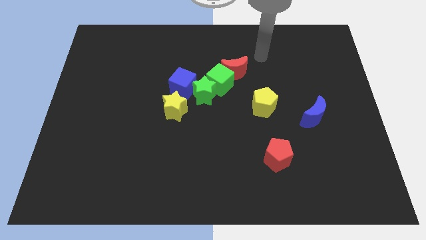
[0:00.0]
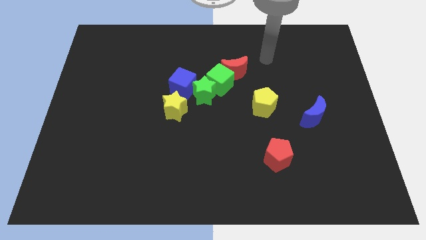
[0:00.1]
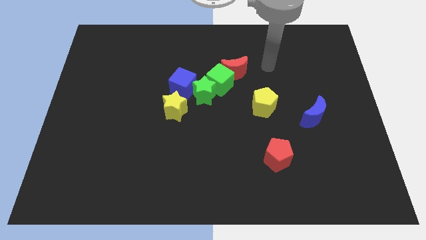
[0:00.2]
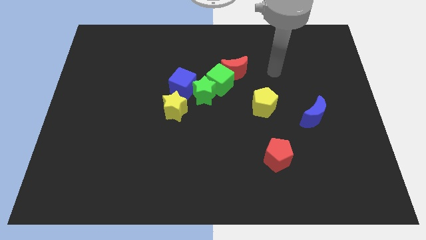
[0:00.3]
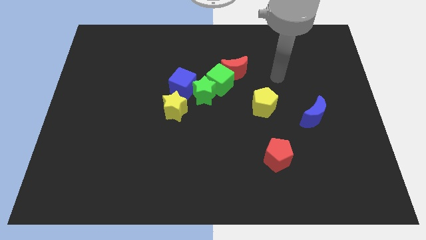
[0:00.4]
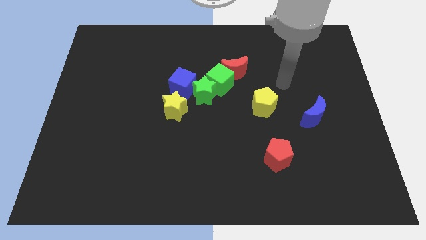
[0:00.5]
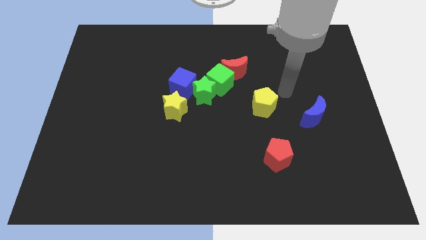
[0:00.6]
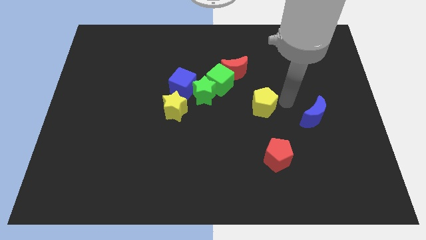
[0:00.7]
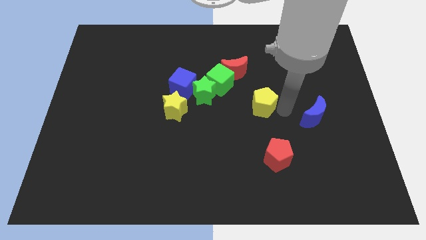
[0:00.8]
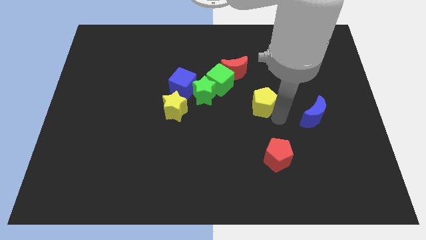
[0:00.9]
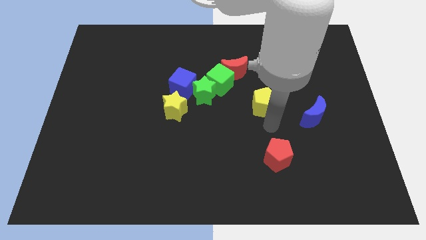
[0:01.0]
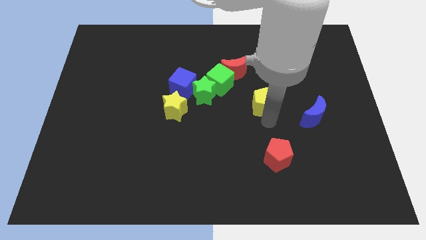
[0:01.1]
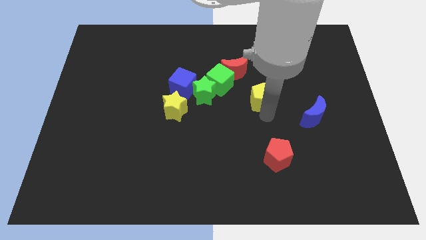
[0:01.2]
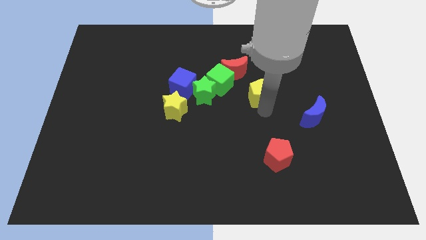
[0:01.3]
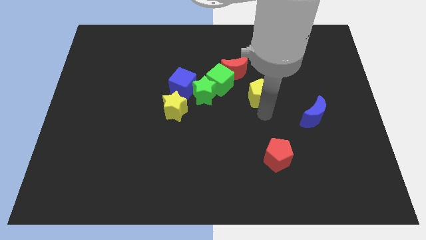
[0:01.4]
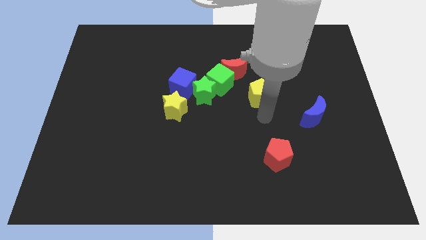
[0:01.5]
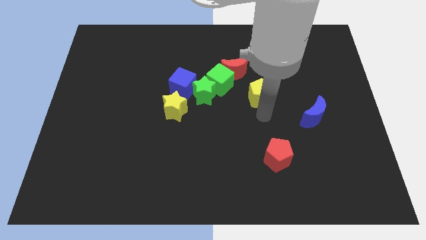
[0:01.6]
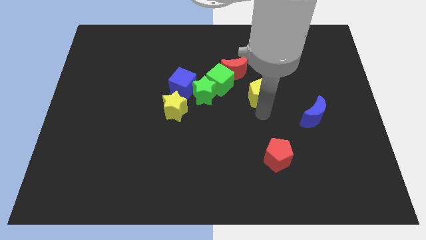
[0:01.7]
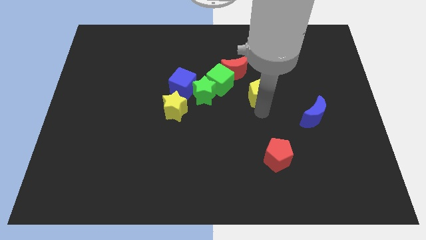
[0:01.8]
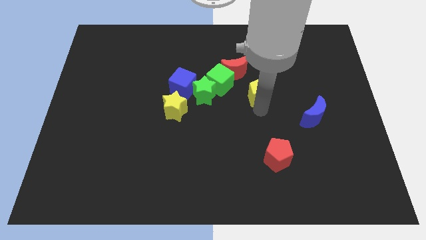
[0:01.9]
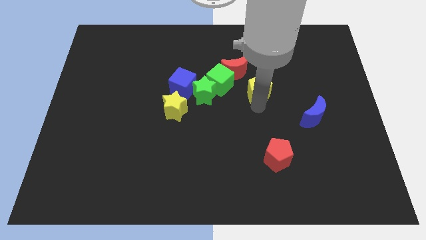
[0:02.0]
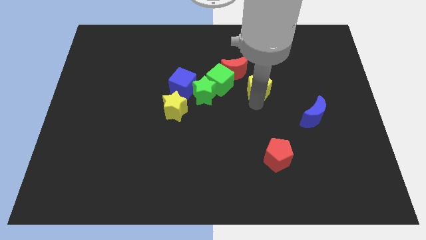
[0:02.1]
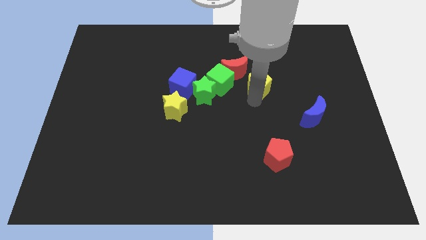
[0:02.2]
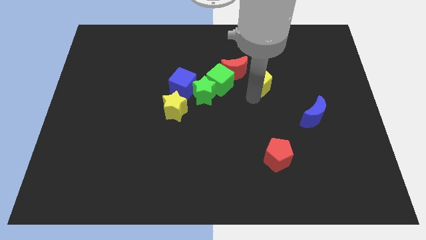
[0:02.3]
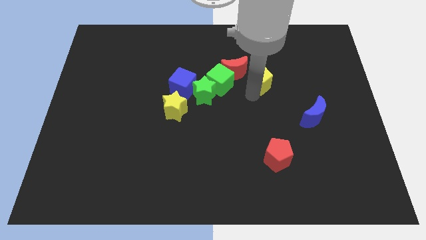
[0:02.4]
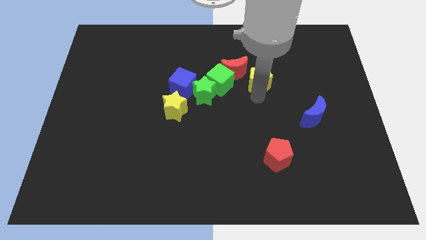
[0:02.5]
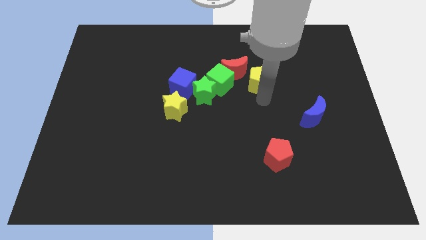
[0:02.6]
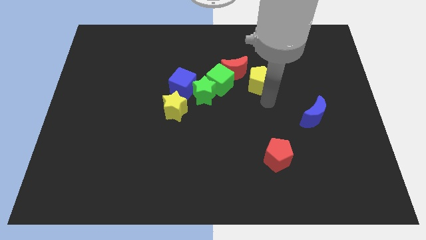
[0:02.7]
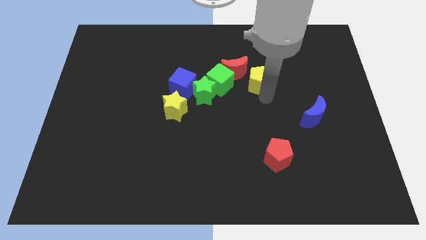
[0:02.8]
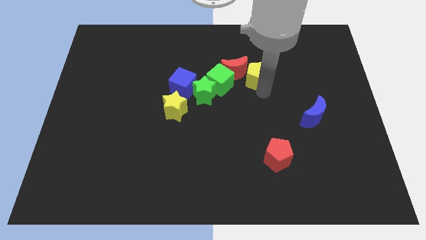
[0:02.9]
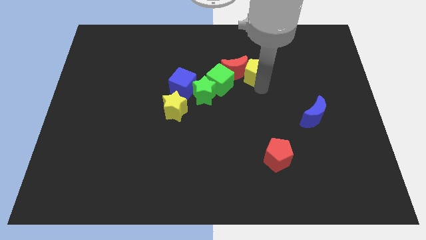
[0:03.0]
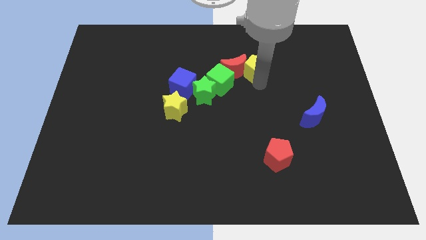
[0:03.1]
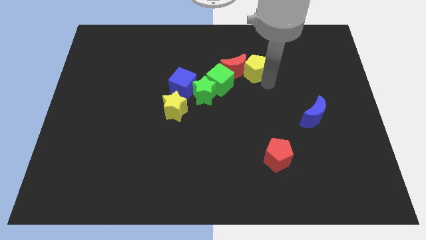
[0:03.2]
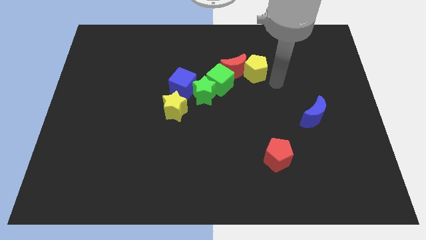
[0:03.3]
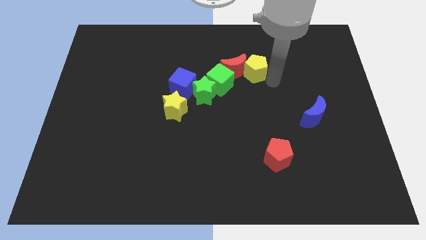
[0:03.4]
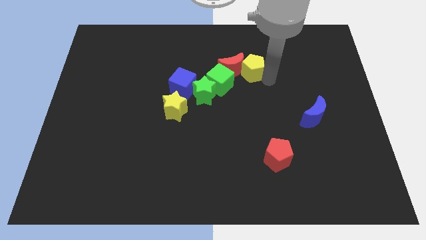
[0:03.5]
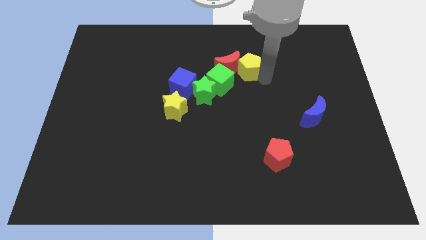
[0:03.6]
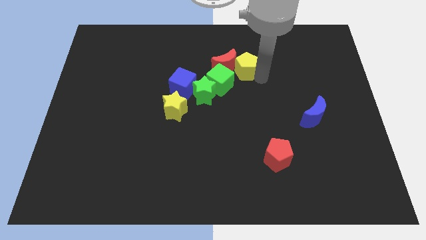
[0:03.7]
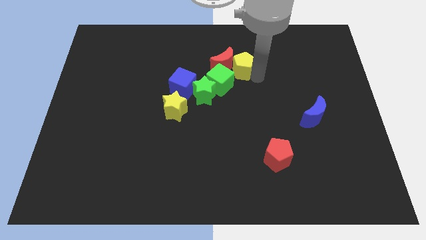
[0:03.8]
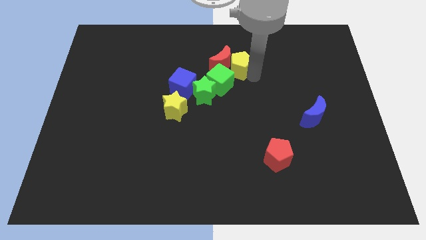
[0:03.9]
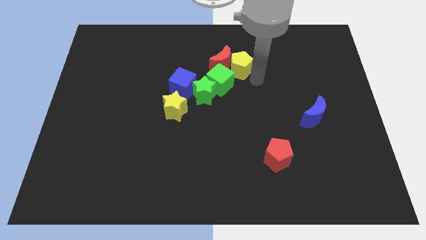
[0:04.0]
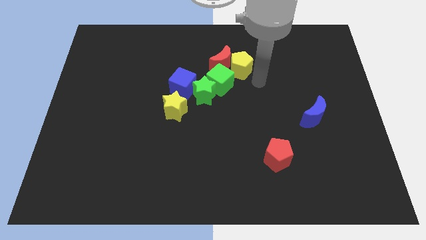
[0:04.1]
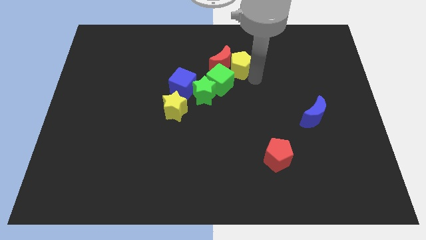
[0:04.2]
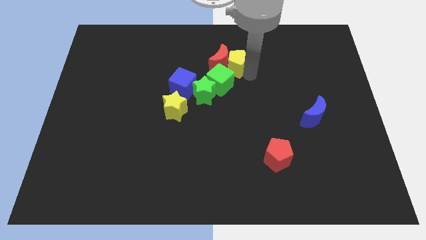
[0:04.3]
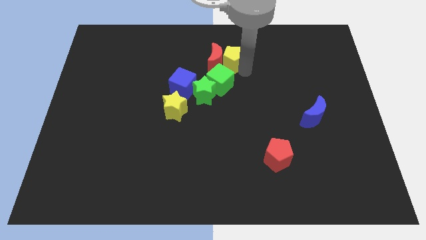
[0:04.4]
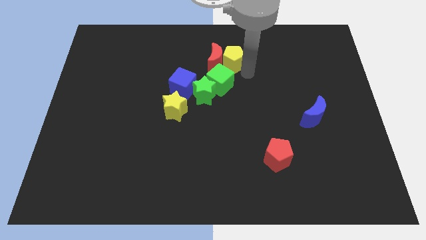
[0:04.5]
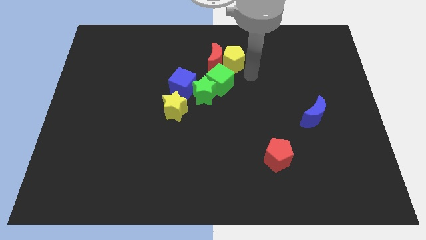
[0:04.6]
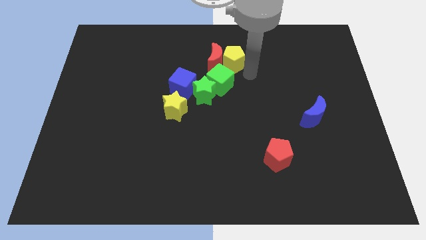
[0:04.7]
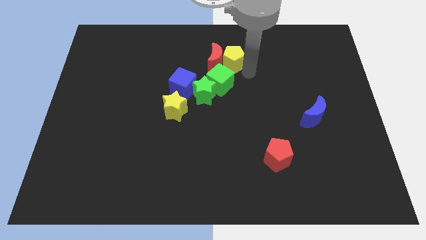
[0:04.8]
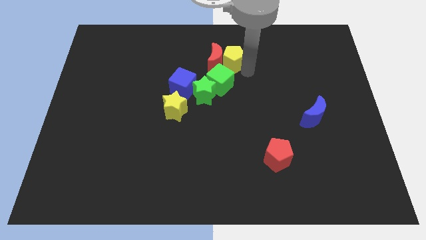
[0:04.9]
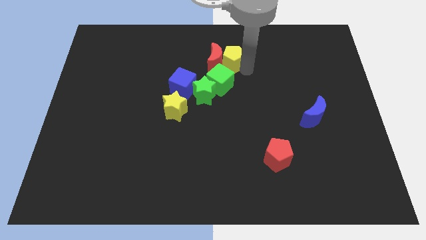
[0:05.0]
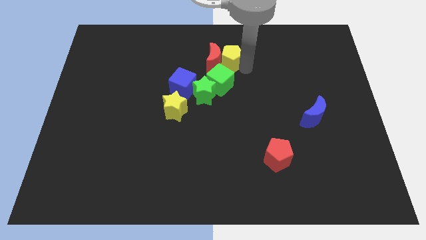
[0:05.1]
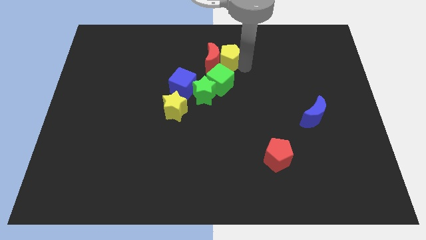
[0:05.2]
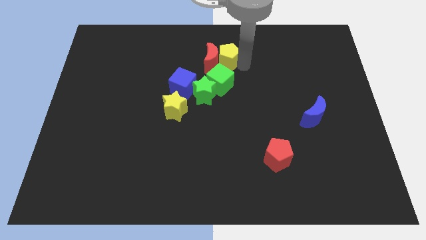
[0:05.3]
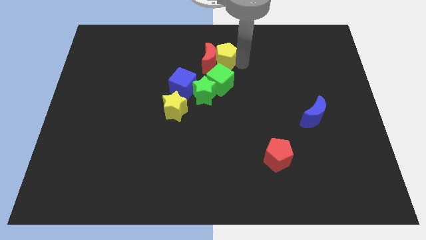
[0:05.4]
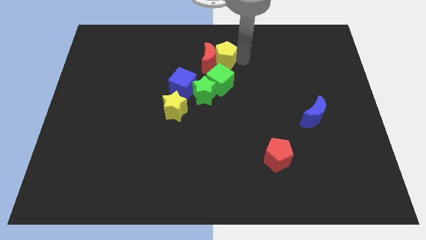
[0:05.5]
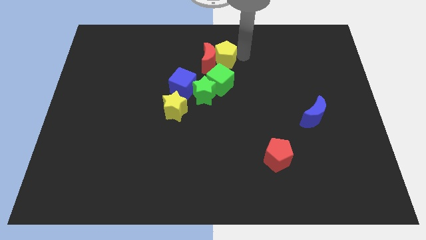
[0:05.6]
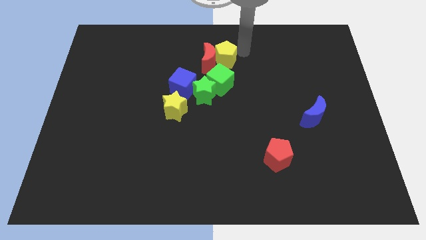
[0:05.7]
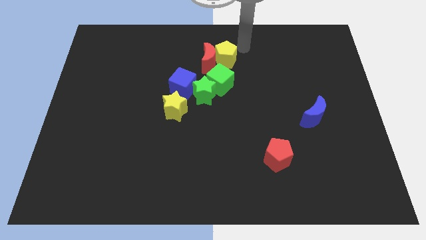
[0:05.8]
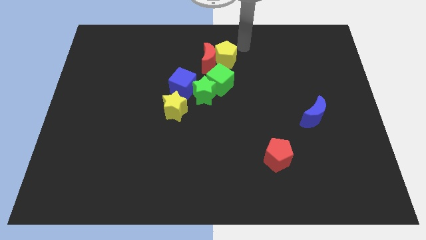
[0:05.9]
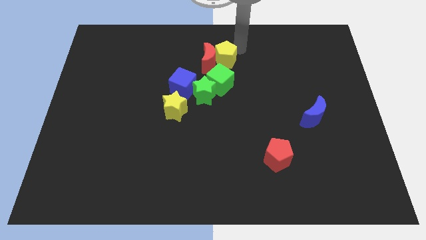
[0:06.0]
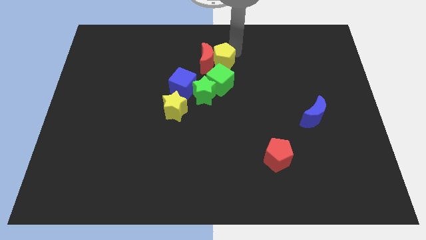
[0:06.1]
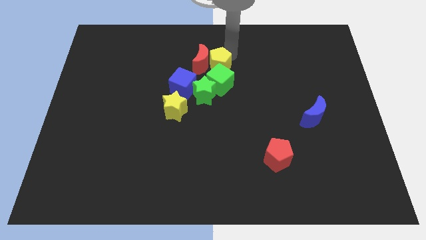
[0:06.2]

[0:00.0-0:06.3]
put the yellow pentagon diagonally up and to the right of the blue cube
